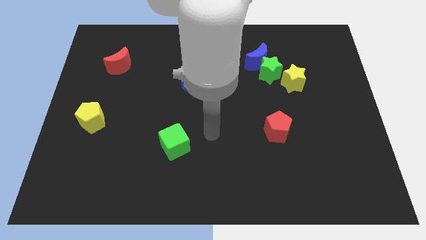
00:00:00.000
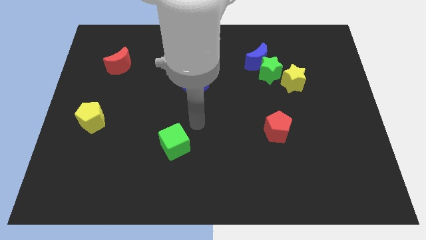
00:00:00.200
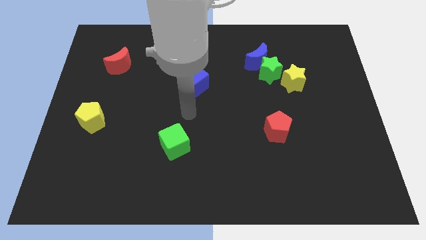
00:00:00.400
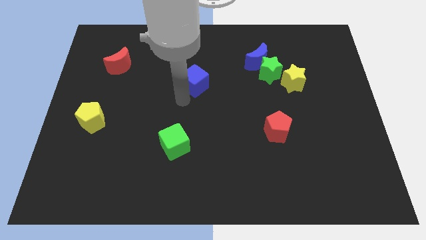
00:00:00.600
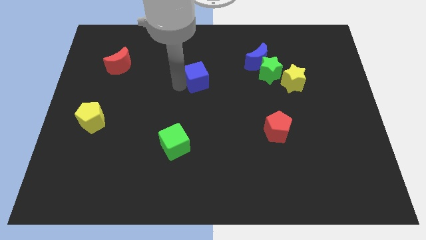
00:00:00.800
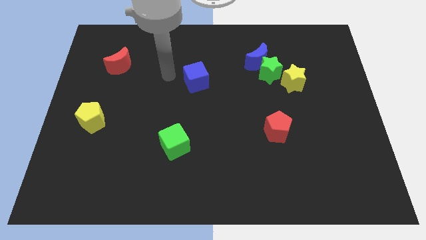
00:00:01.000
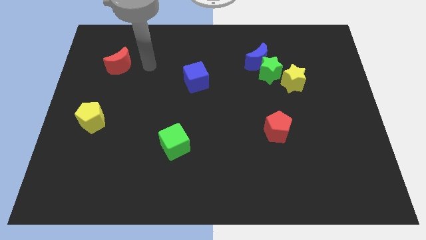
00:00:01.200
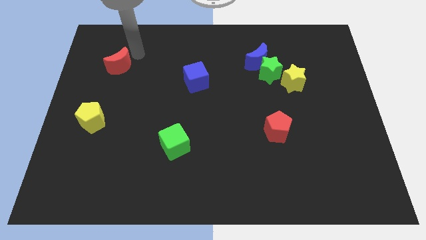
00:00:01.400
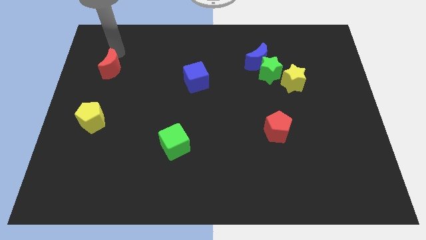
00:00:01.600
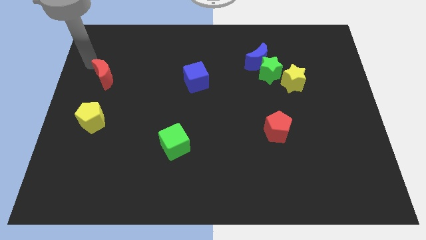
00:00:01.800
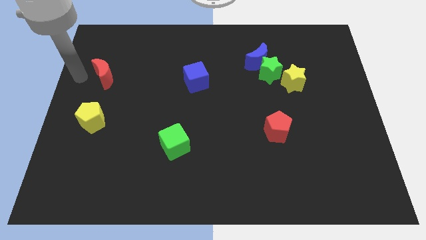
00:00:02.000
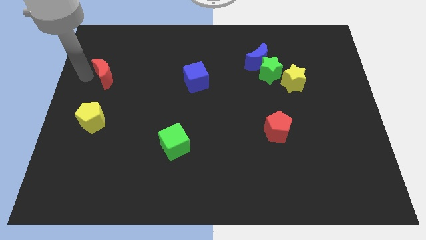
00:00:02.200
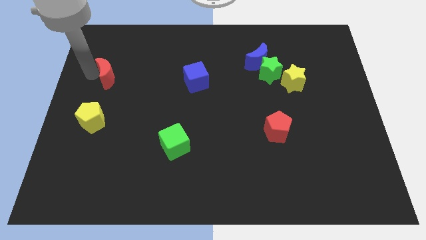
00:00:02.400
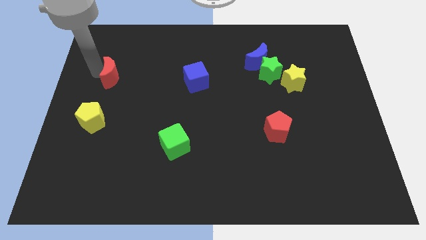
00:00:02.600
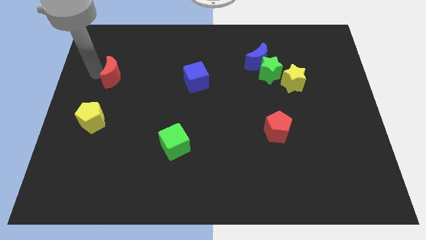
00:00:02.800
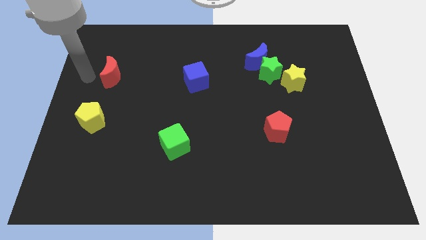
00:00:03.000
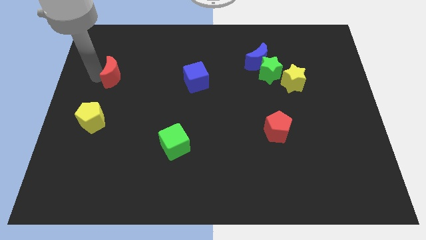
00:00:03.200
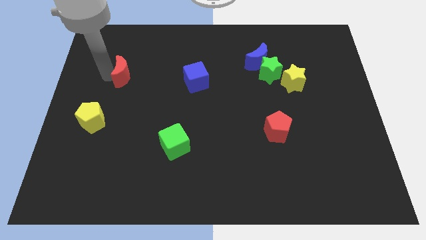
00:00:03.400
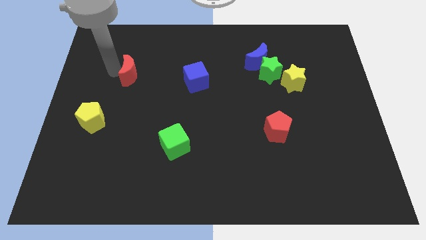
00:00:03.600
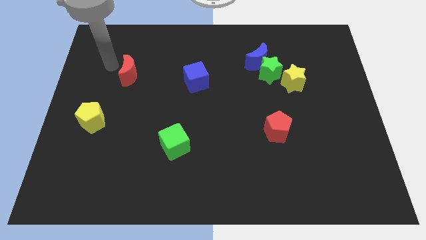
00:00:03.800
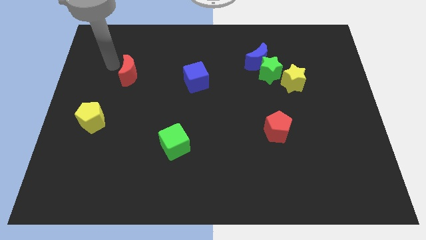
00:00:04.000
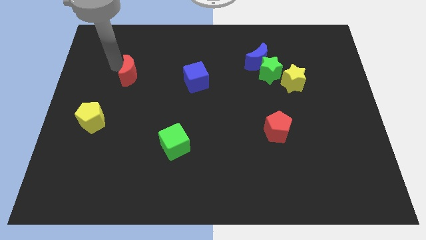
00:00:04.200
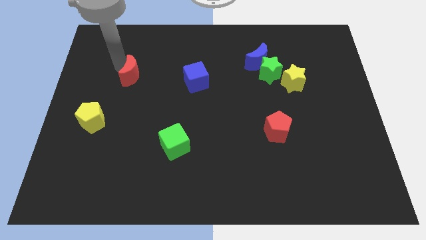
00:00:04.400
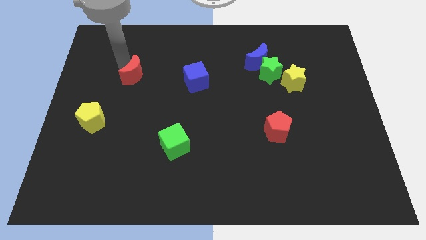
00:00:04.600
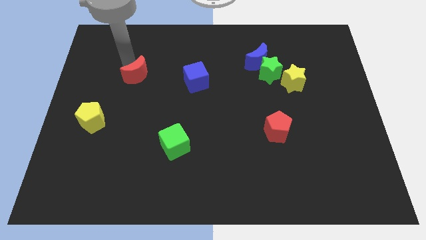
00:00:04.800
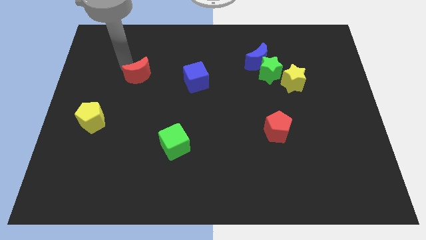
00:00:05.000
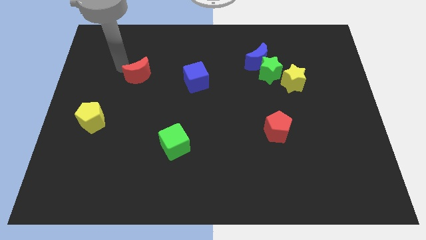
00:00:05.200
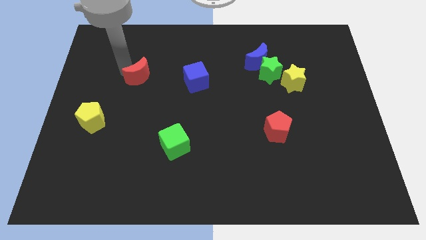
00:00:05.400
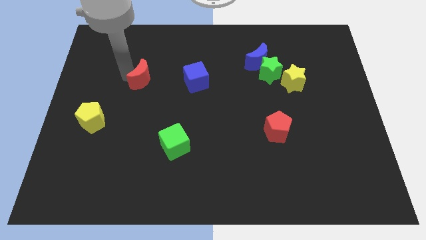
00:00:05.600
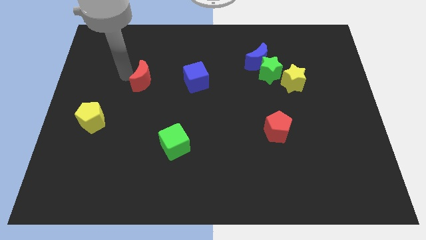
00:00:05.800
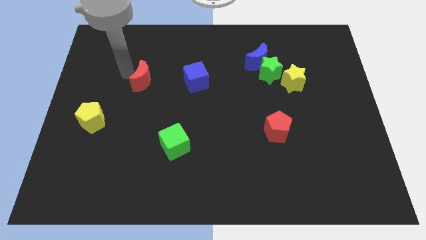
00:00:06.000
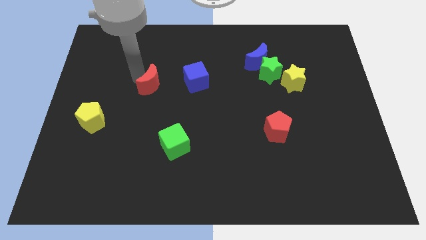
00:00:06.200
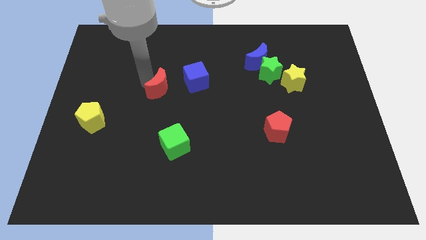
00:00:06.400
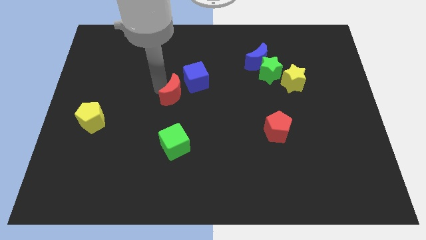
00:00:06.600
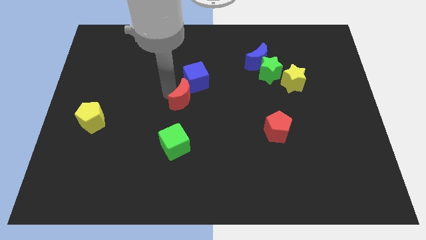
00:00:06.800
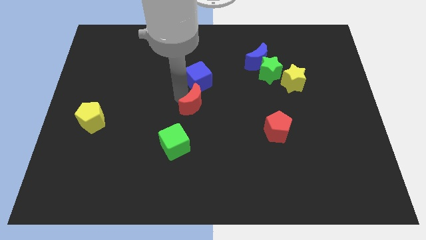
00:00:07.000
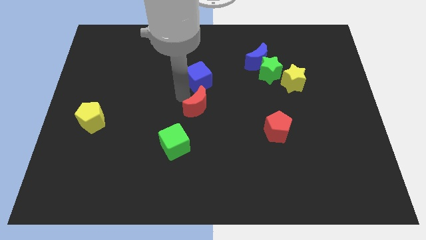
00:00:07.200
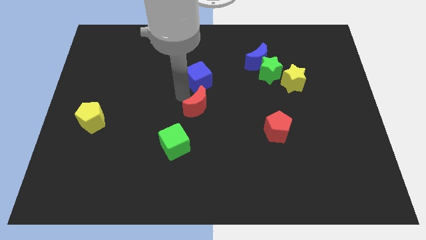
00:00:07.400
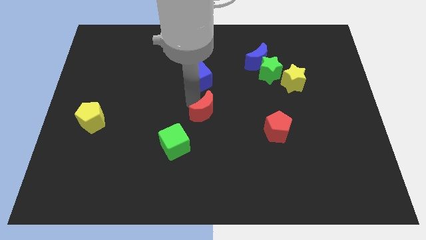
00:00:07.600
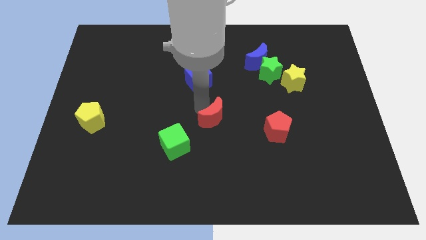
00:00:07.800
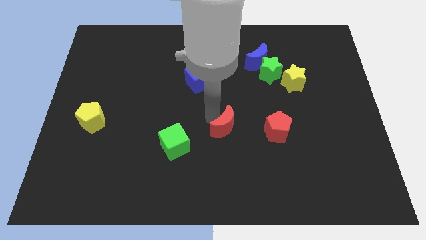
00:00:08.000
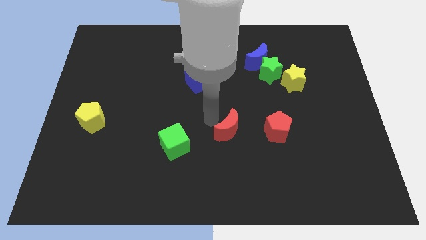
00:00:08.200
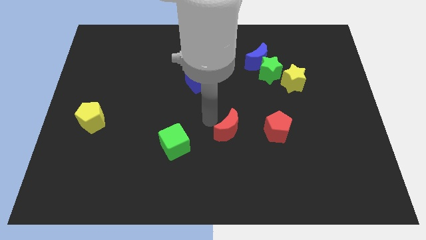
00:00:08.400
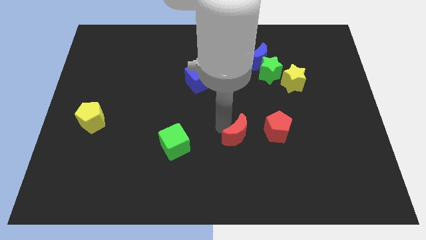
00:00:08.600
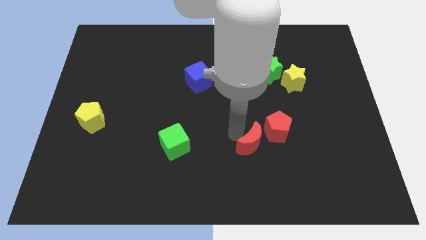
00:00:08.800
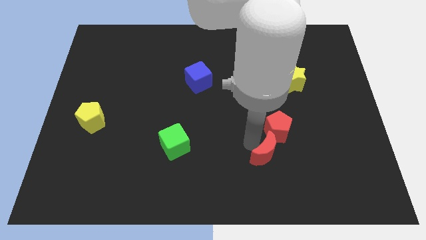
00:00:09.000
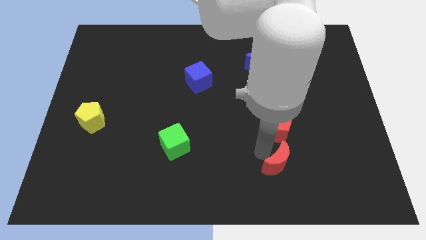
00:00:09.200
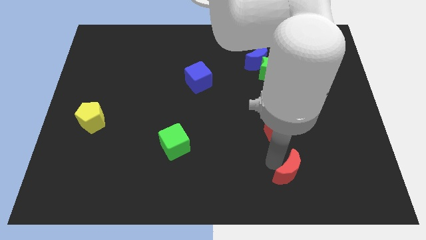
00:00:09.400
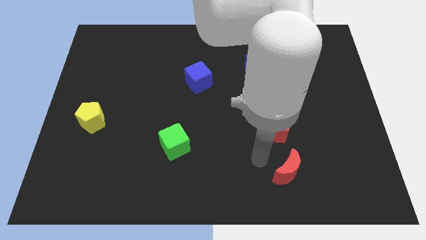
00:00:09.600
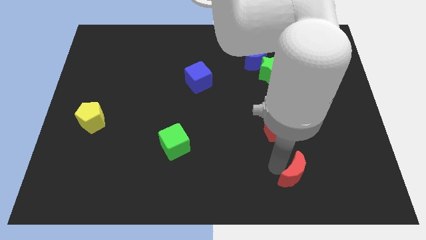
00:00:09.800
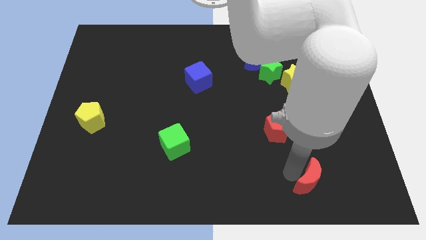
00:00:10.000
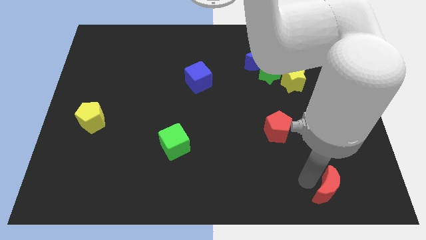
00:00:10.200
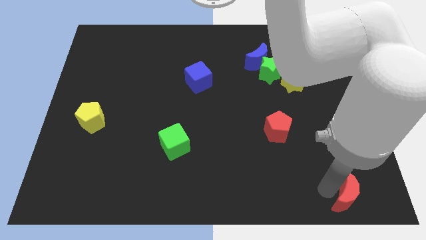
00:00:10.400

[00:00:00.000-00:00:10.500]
move the red moon to the bottom right corner

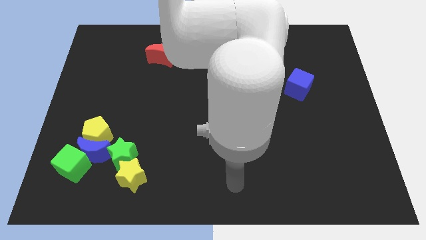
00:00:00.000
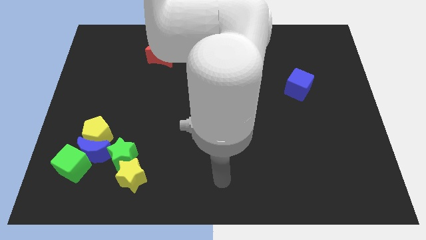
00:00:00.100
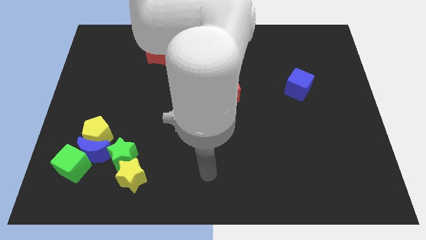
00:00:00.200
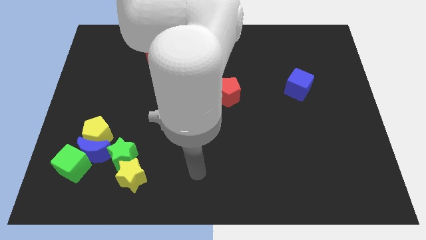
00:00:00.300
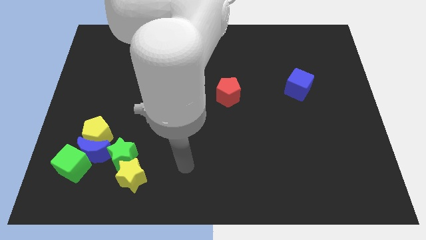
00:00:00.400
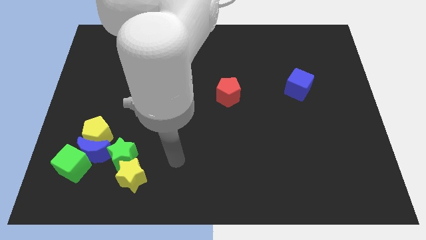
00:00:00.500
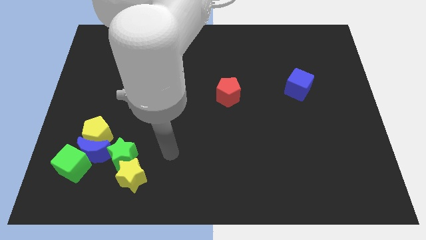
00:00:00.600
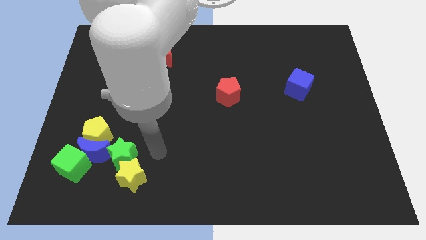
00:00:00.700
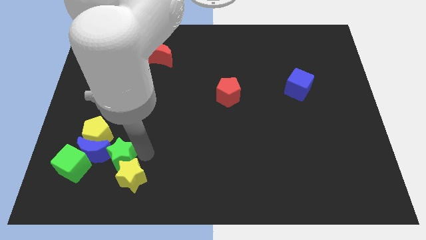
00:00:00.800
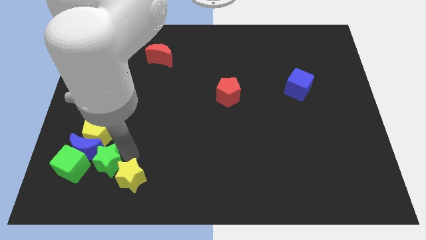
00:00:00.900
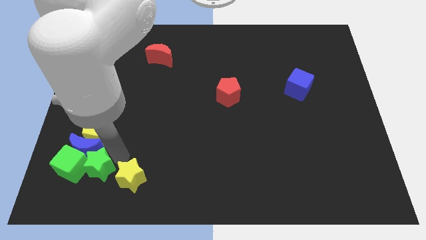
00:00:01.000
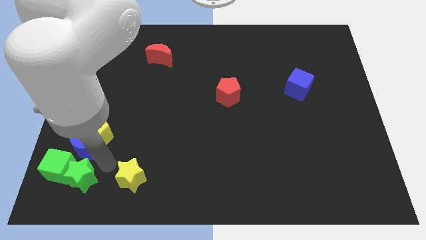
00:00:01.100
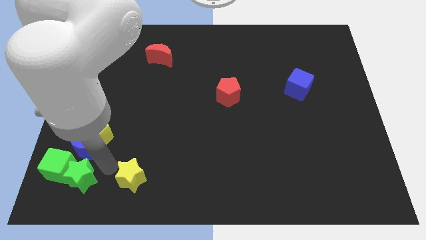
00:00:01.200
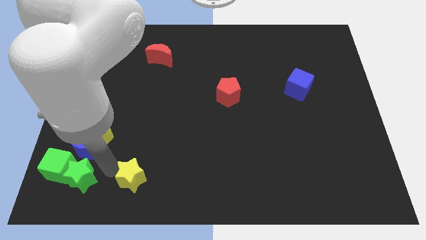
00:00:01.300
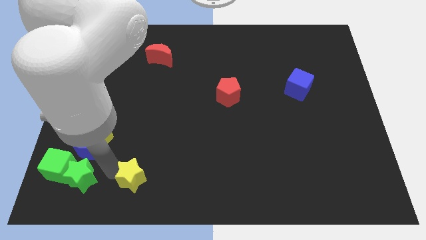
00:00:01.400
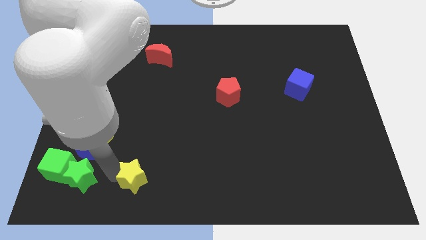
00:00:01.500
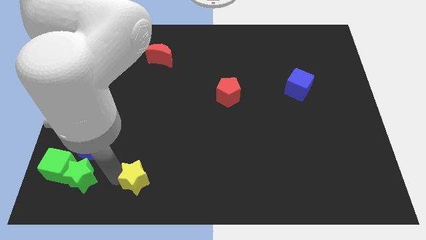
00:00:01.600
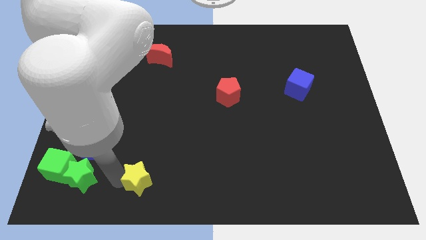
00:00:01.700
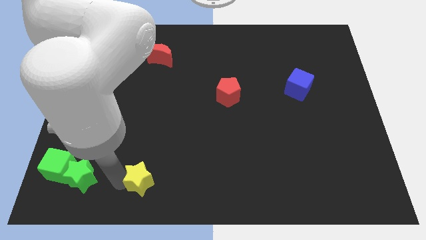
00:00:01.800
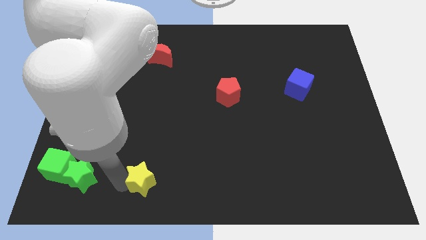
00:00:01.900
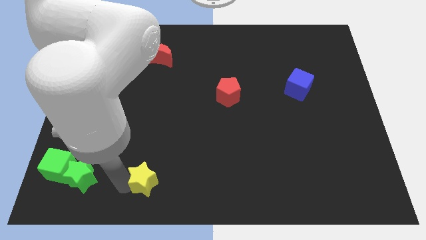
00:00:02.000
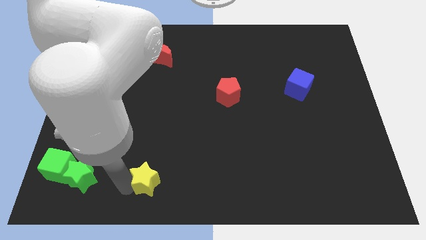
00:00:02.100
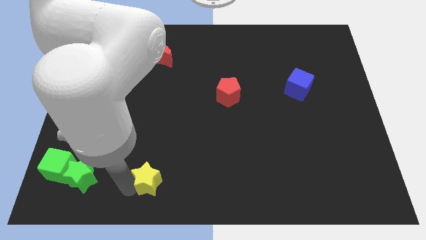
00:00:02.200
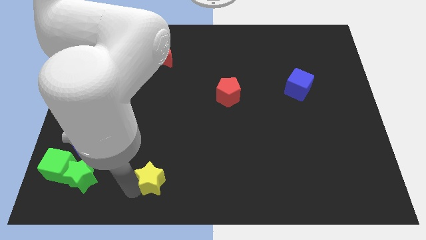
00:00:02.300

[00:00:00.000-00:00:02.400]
move the yellow star to the bottom side
